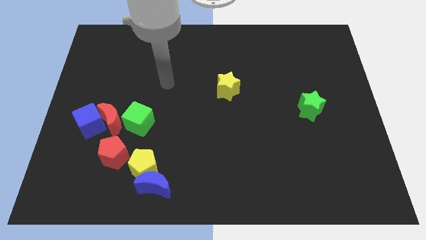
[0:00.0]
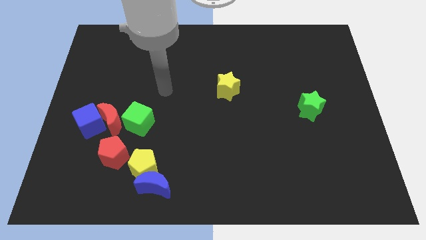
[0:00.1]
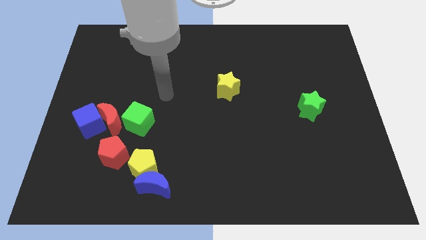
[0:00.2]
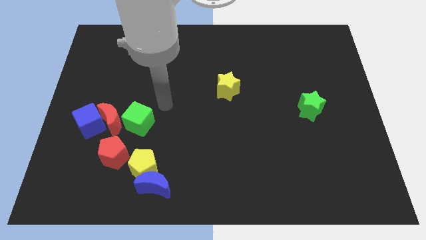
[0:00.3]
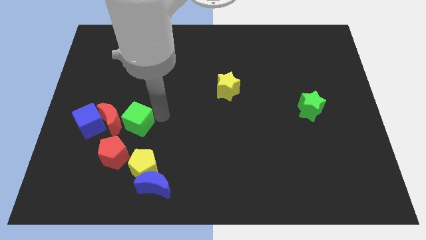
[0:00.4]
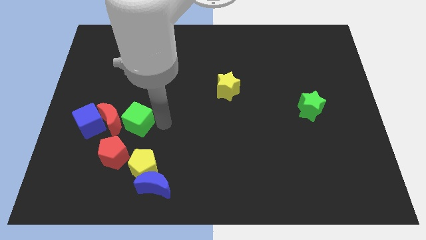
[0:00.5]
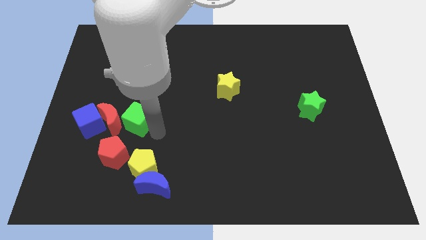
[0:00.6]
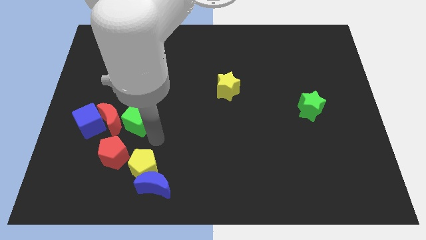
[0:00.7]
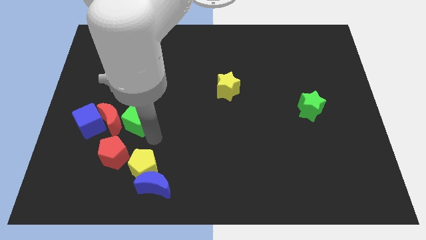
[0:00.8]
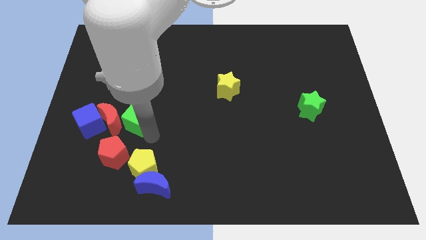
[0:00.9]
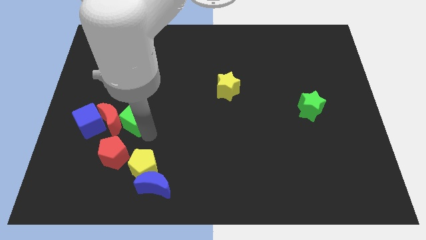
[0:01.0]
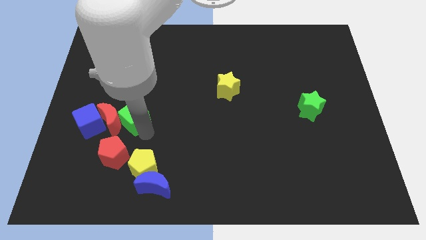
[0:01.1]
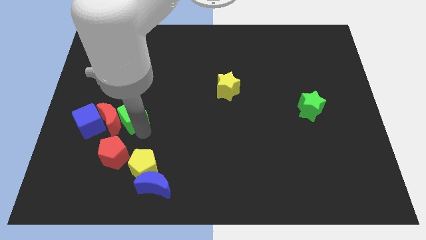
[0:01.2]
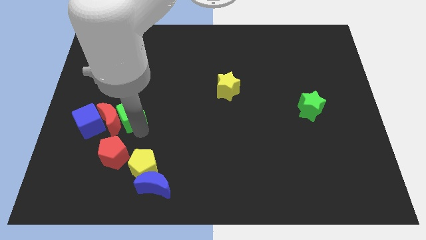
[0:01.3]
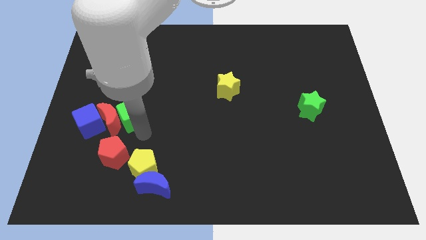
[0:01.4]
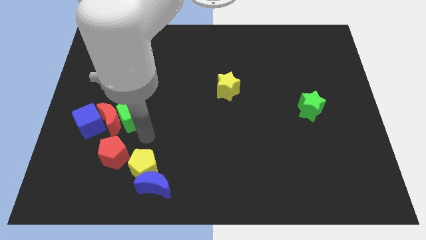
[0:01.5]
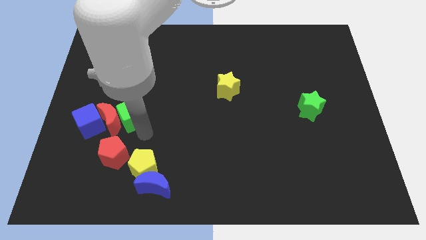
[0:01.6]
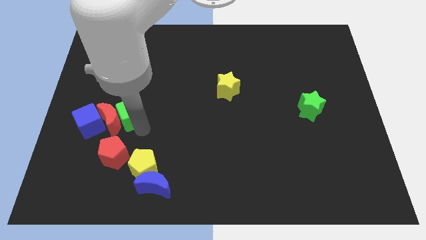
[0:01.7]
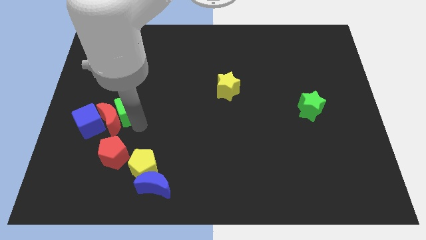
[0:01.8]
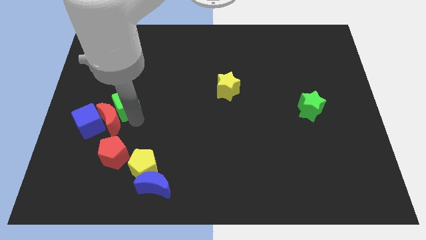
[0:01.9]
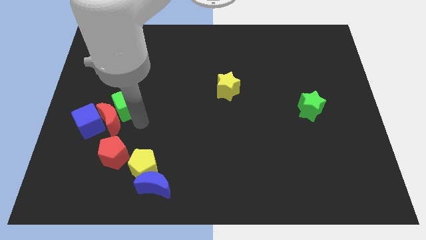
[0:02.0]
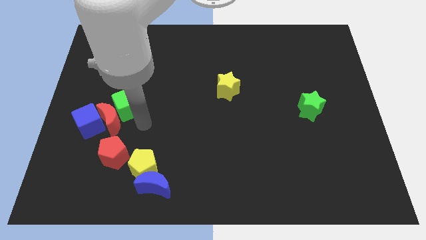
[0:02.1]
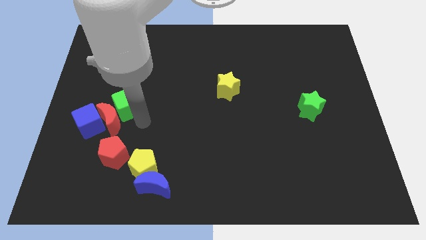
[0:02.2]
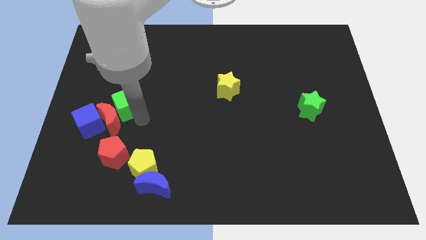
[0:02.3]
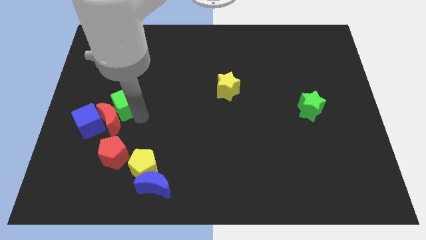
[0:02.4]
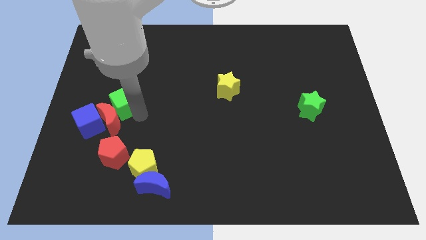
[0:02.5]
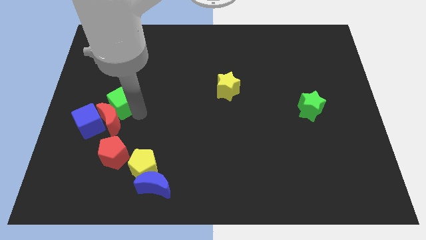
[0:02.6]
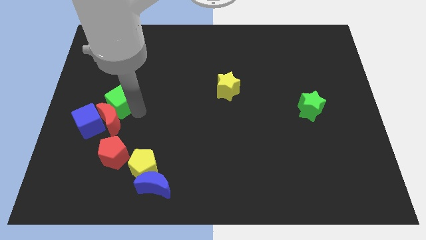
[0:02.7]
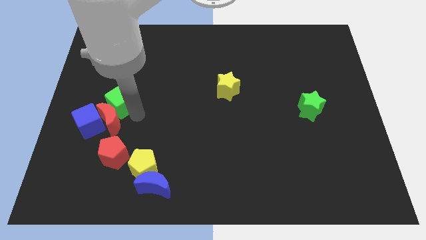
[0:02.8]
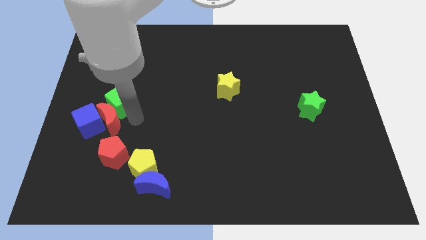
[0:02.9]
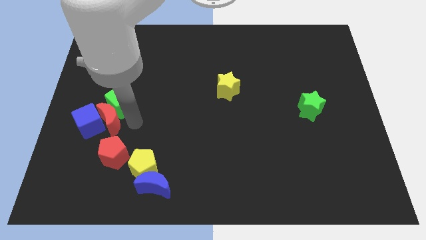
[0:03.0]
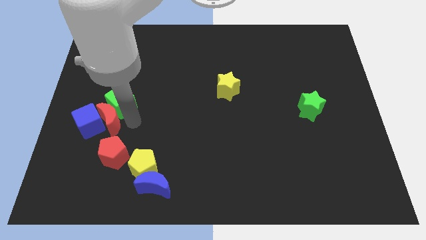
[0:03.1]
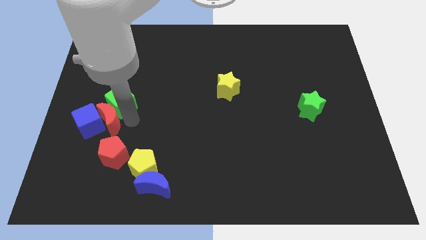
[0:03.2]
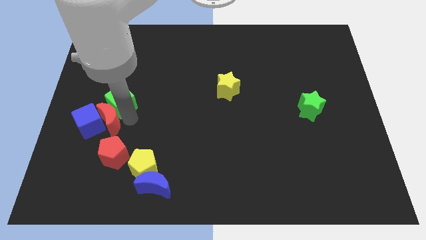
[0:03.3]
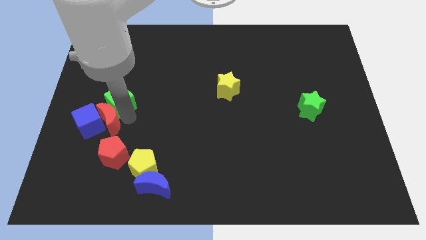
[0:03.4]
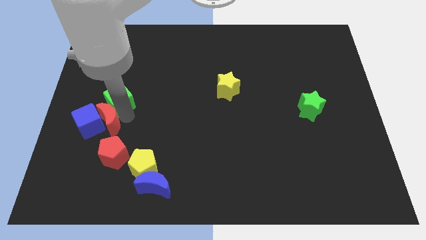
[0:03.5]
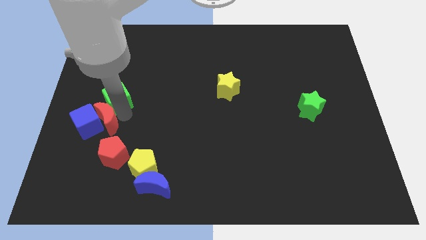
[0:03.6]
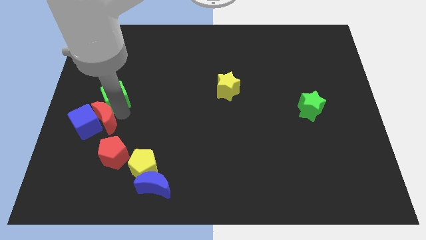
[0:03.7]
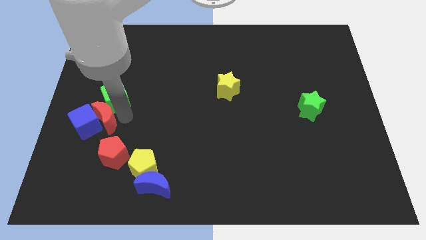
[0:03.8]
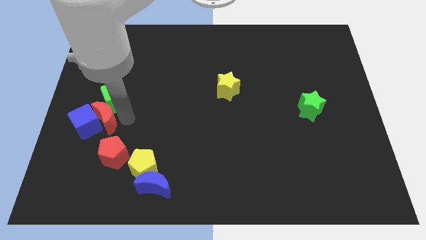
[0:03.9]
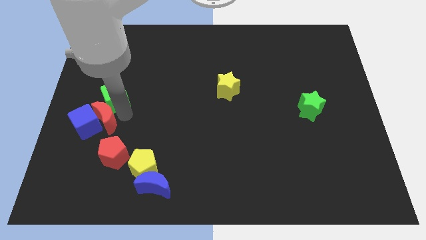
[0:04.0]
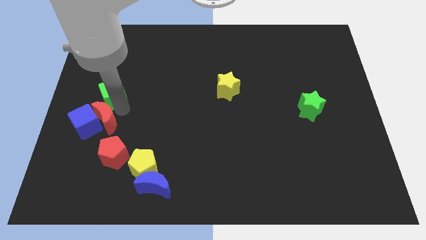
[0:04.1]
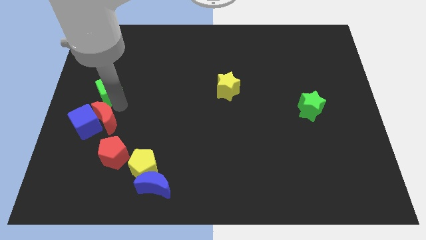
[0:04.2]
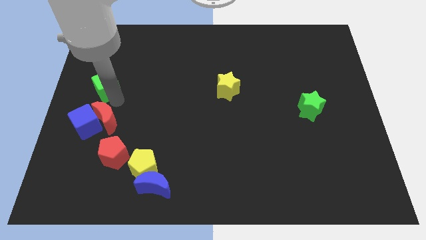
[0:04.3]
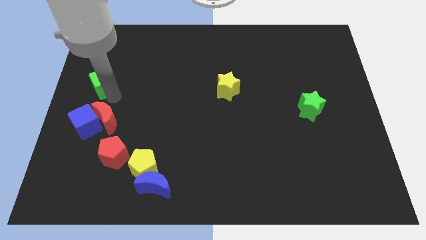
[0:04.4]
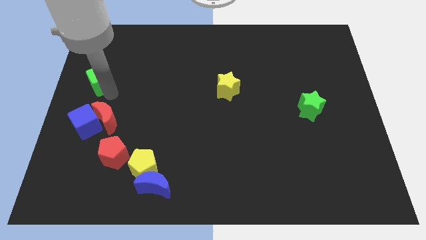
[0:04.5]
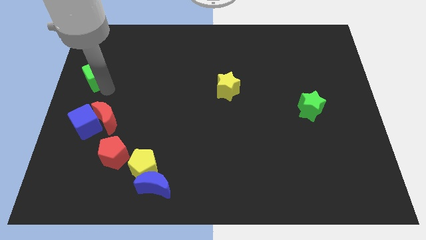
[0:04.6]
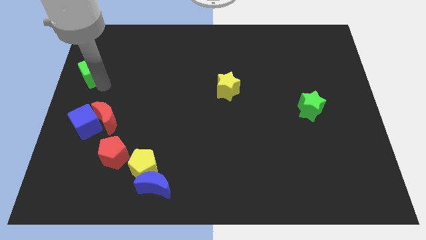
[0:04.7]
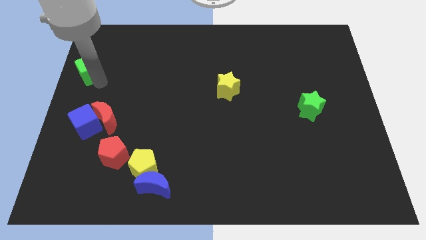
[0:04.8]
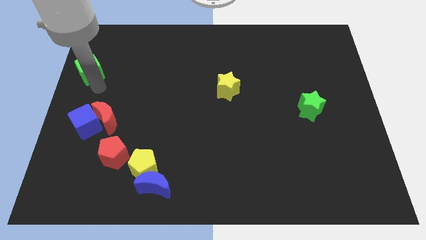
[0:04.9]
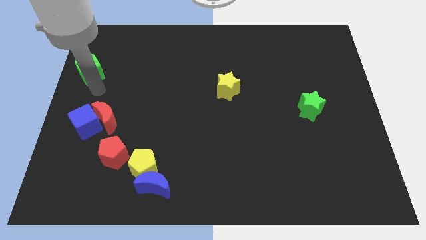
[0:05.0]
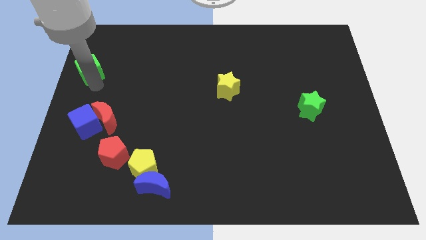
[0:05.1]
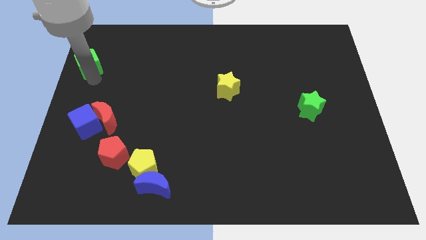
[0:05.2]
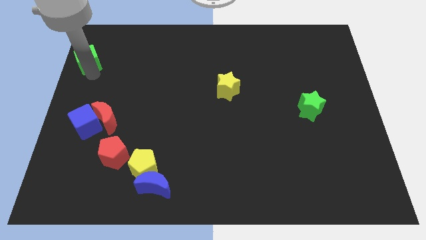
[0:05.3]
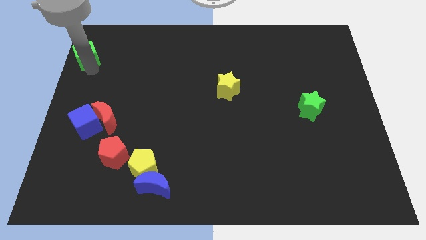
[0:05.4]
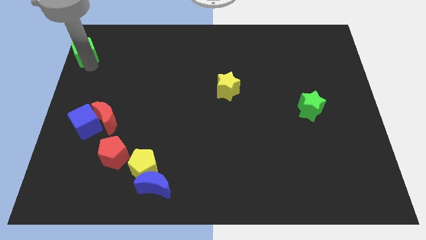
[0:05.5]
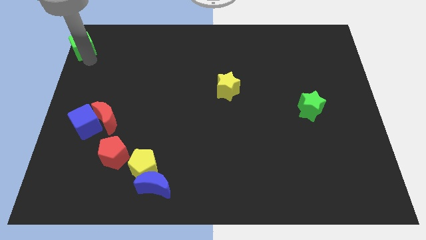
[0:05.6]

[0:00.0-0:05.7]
slide the green cube to the top left corner

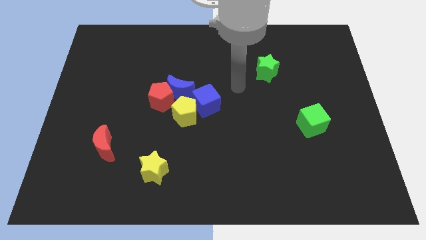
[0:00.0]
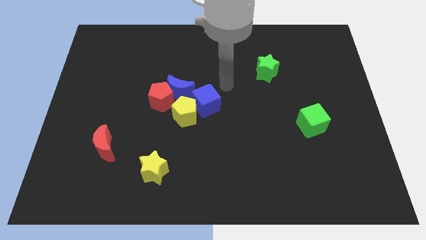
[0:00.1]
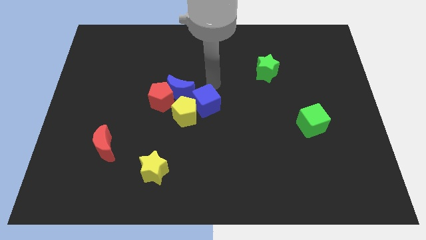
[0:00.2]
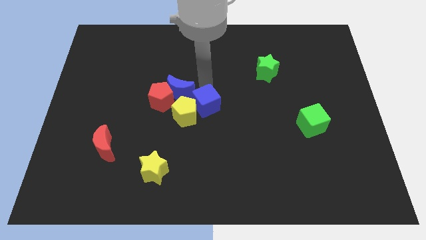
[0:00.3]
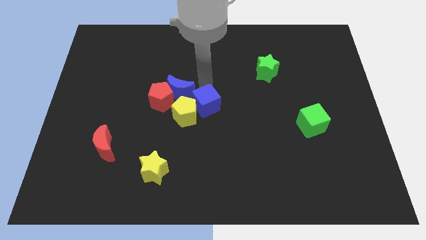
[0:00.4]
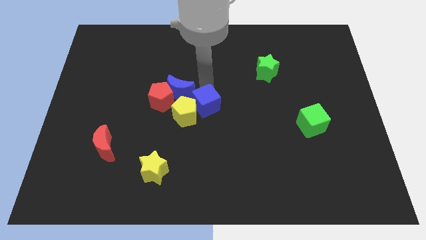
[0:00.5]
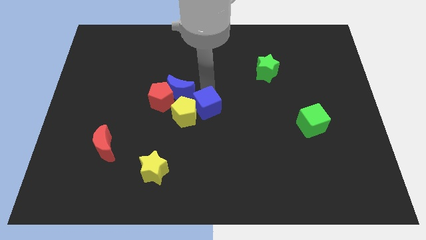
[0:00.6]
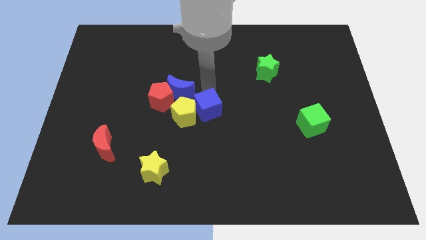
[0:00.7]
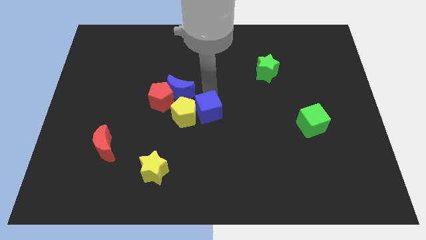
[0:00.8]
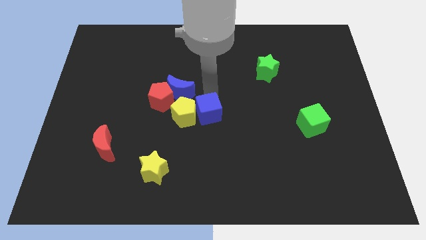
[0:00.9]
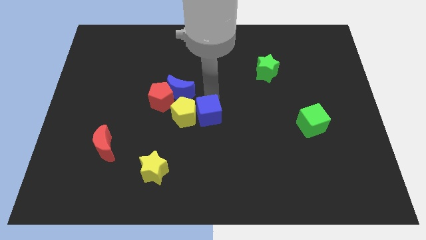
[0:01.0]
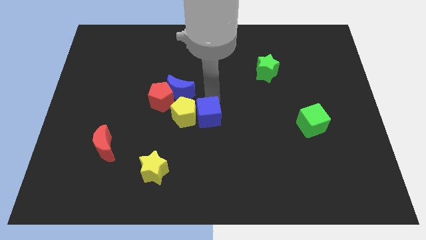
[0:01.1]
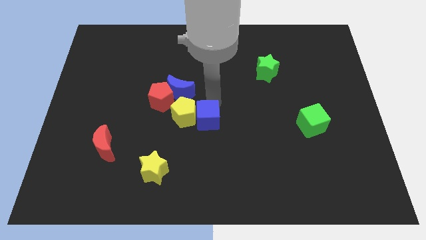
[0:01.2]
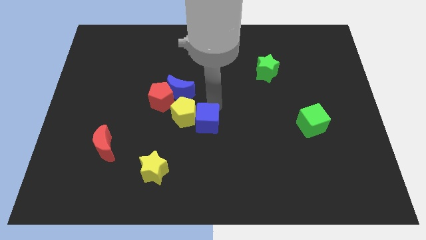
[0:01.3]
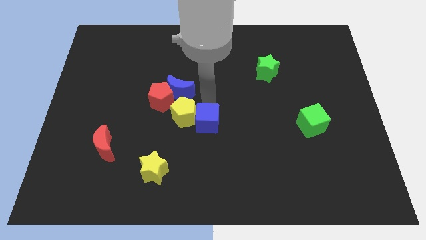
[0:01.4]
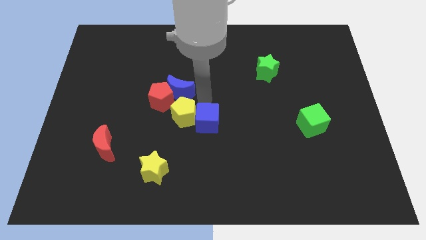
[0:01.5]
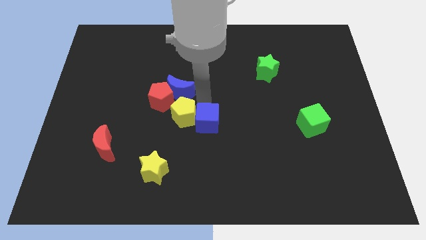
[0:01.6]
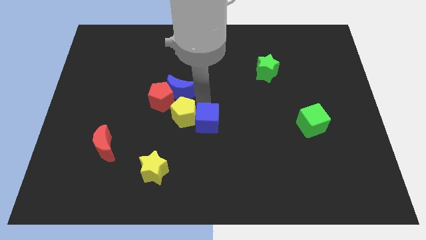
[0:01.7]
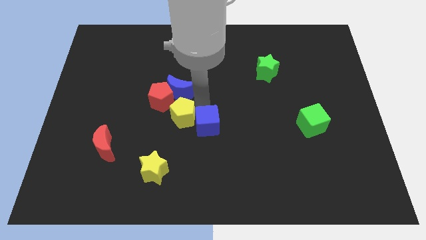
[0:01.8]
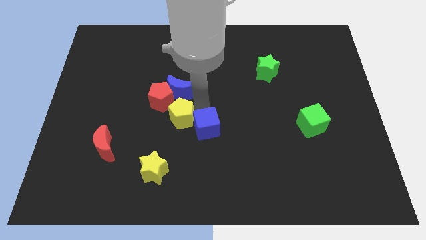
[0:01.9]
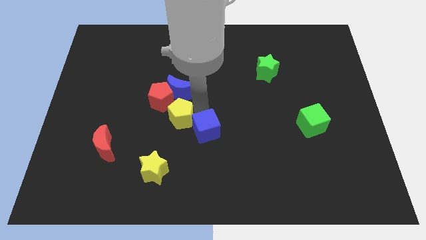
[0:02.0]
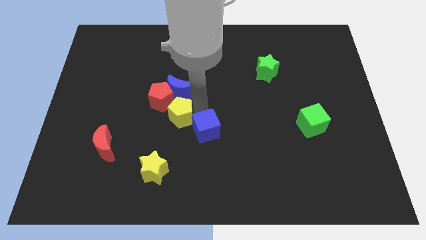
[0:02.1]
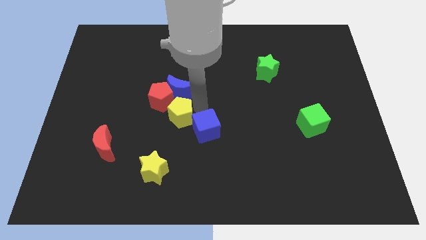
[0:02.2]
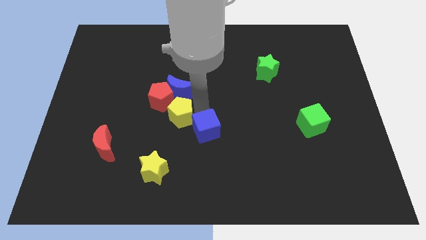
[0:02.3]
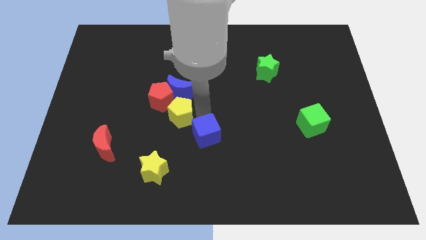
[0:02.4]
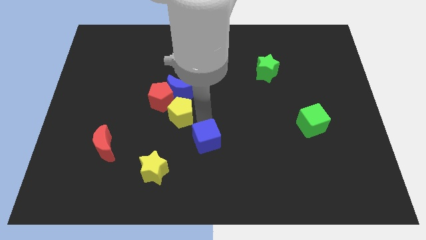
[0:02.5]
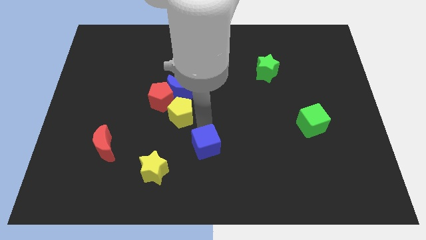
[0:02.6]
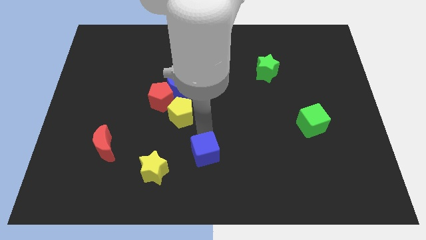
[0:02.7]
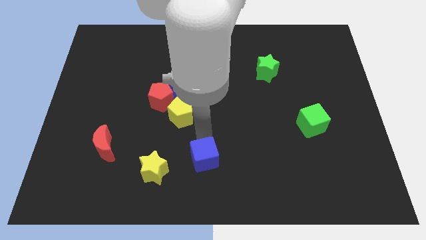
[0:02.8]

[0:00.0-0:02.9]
move the blue cube to the bottom
